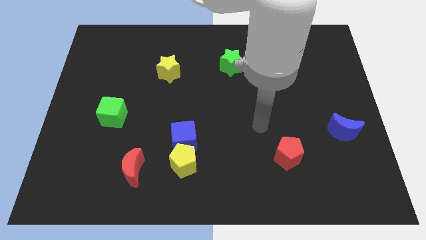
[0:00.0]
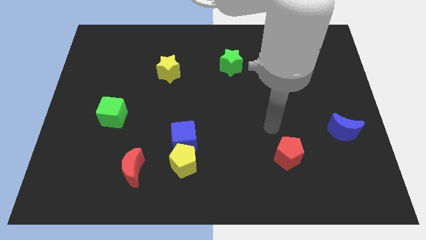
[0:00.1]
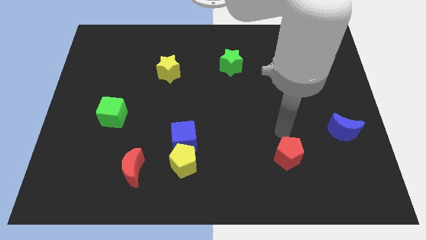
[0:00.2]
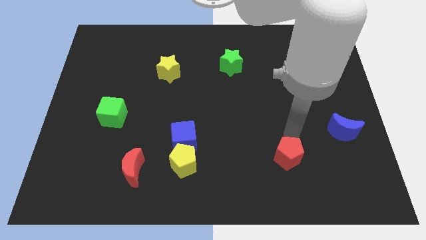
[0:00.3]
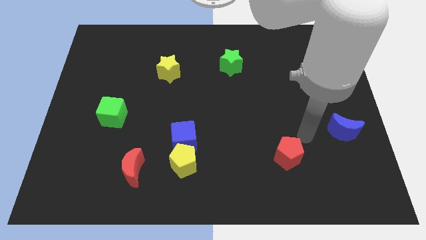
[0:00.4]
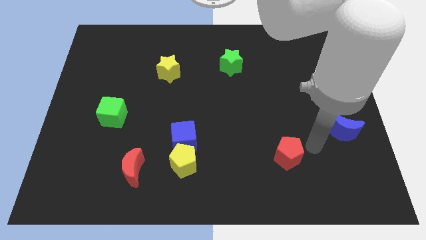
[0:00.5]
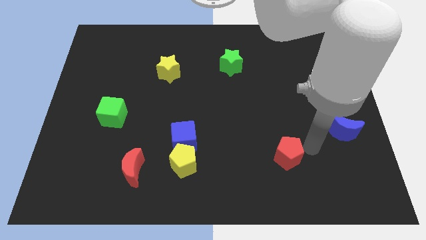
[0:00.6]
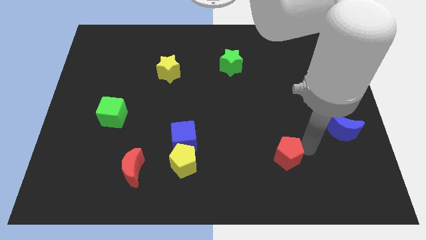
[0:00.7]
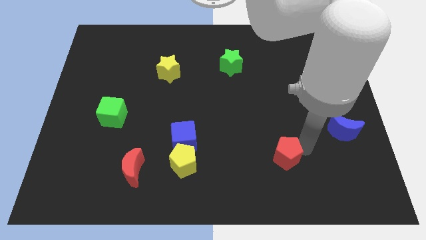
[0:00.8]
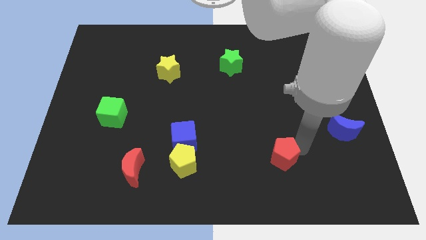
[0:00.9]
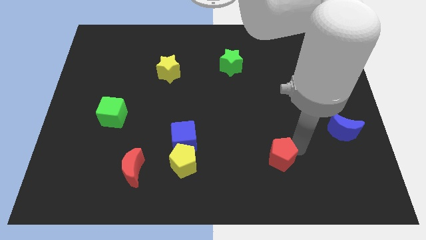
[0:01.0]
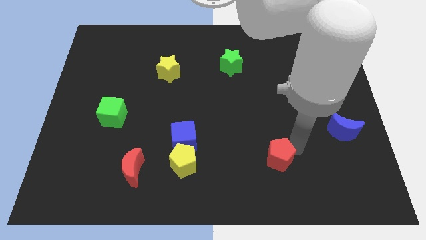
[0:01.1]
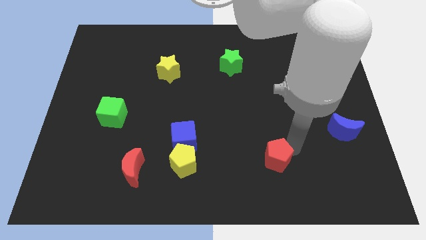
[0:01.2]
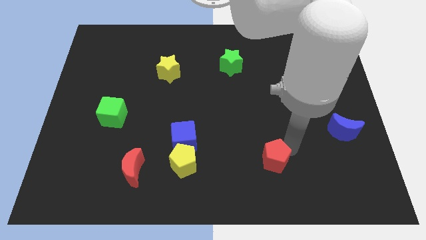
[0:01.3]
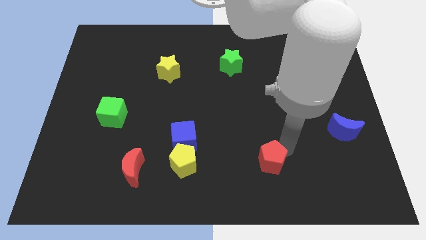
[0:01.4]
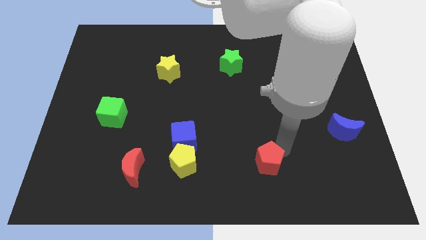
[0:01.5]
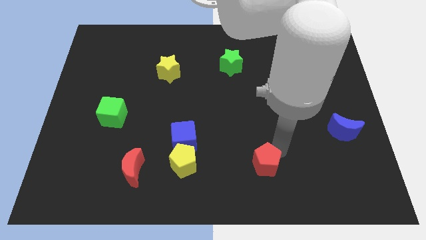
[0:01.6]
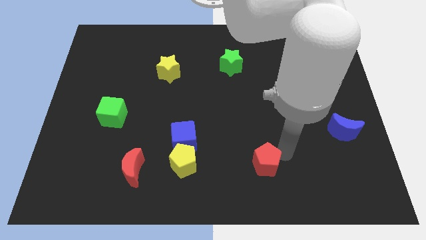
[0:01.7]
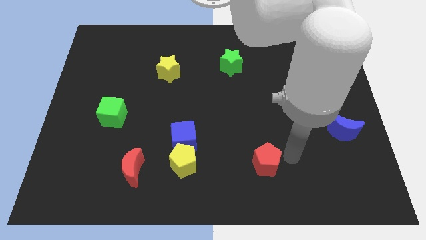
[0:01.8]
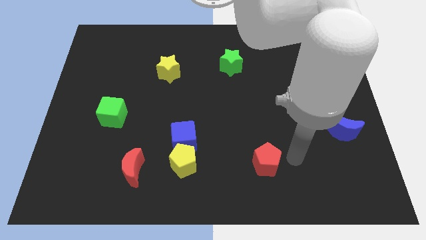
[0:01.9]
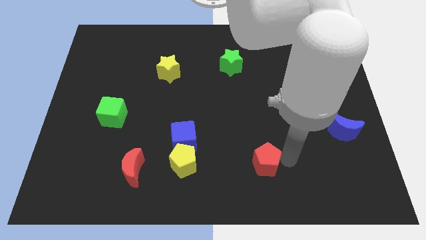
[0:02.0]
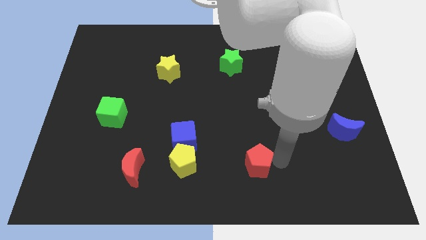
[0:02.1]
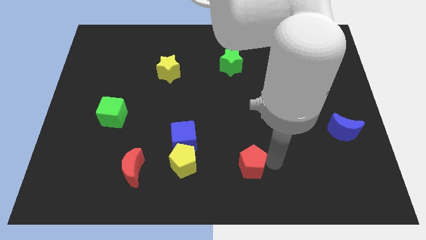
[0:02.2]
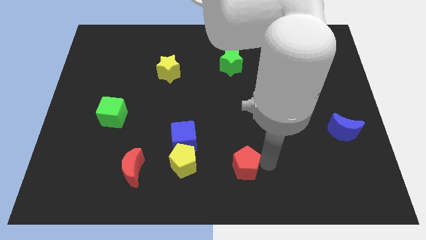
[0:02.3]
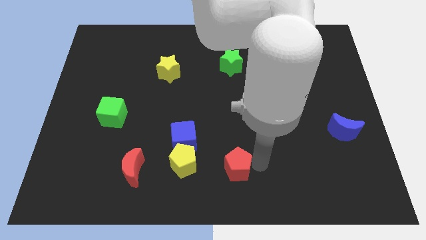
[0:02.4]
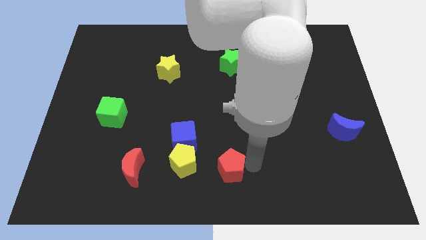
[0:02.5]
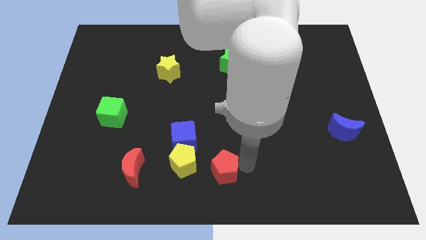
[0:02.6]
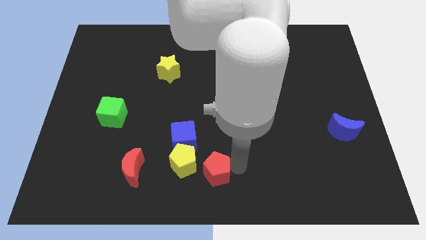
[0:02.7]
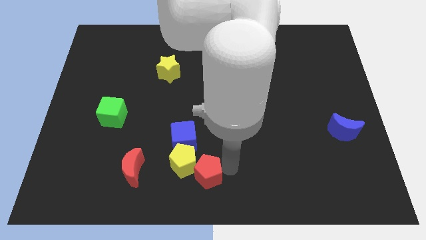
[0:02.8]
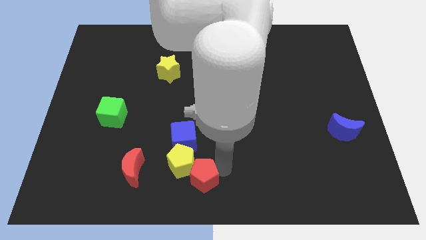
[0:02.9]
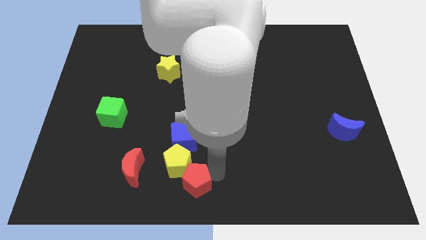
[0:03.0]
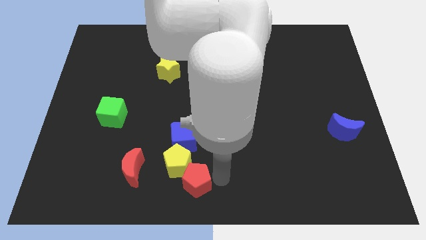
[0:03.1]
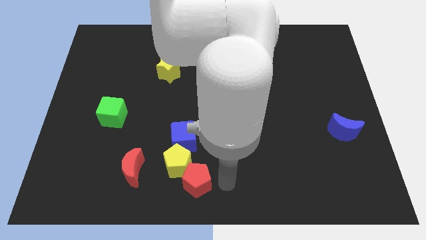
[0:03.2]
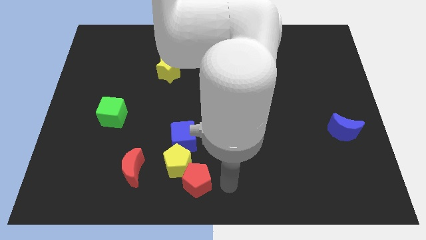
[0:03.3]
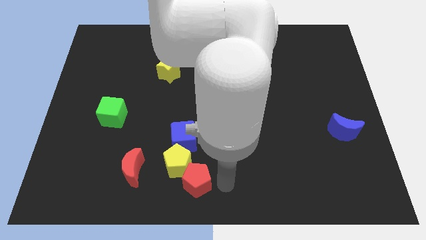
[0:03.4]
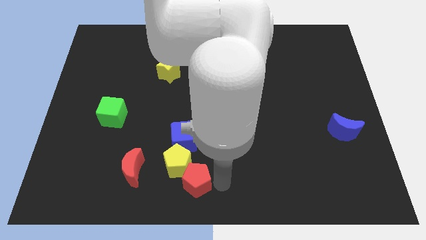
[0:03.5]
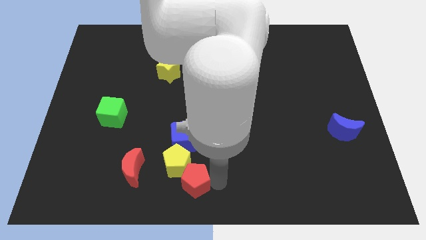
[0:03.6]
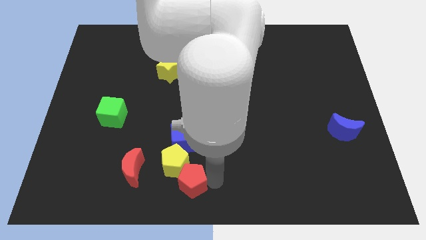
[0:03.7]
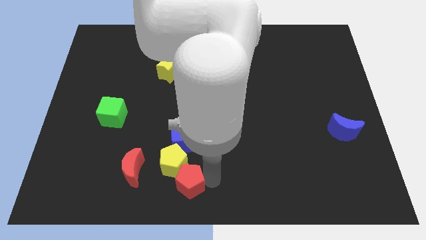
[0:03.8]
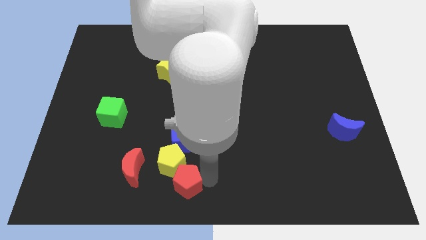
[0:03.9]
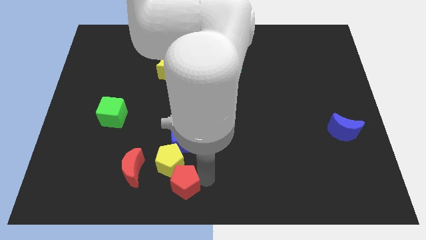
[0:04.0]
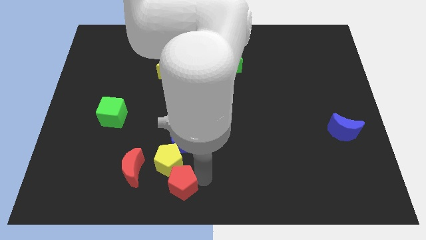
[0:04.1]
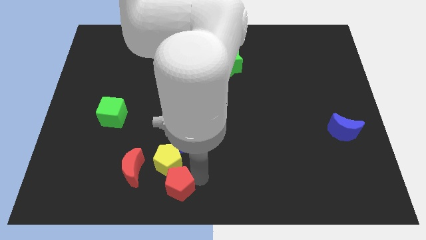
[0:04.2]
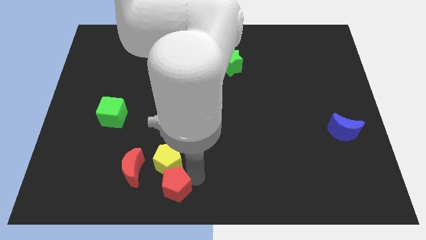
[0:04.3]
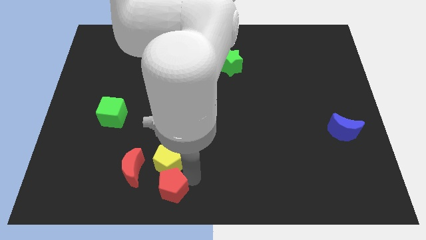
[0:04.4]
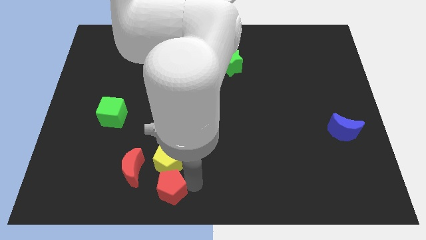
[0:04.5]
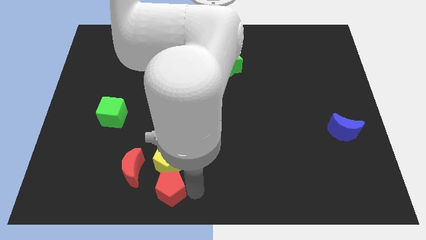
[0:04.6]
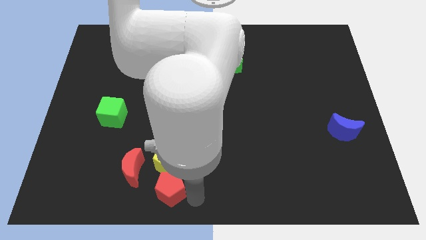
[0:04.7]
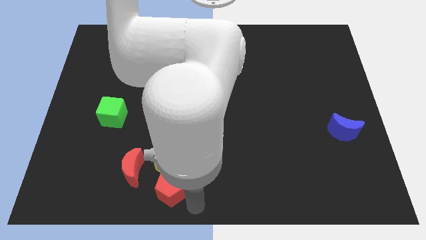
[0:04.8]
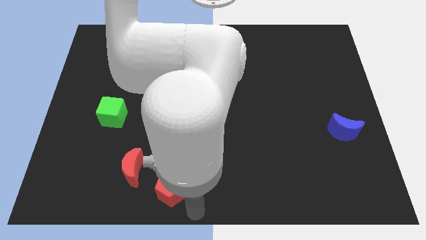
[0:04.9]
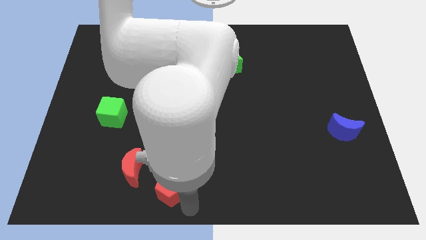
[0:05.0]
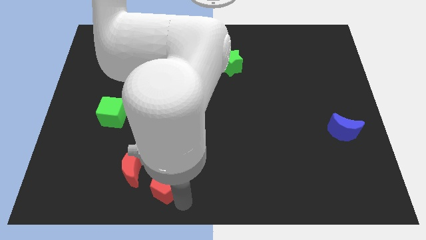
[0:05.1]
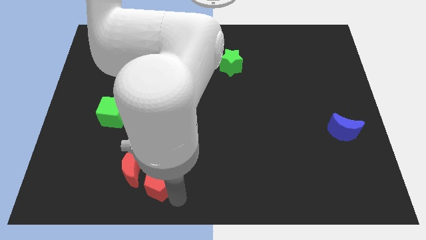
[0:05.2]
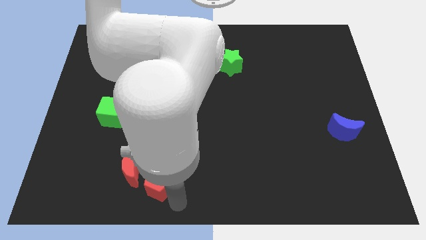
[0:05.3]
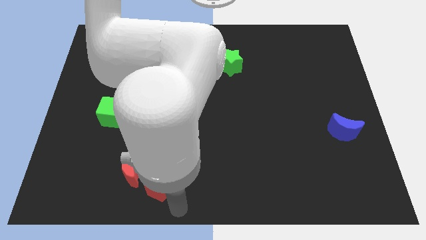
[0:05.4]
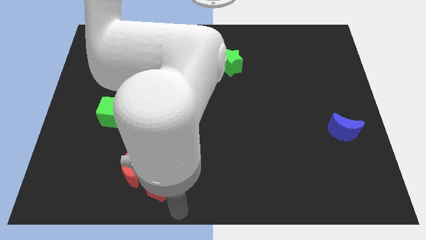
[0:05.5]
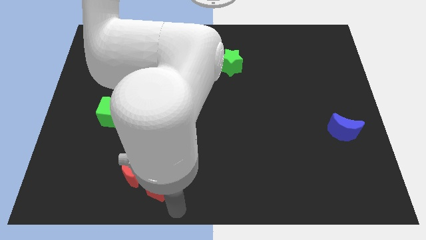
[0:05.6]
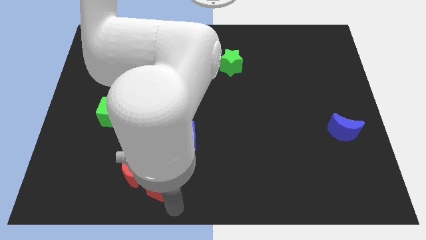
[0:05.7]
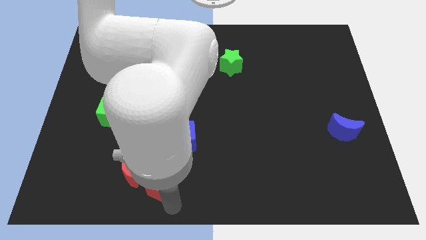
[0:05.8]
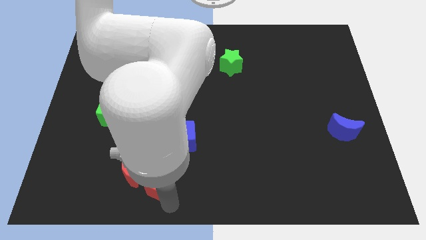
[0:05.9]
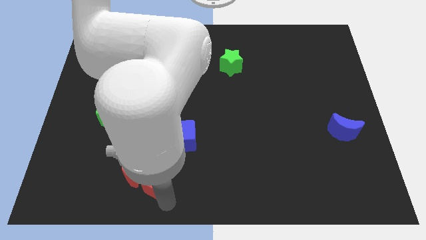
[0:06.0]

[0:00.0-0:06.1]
put the red pentagon to the red moon

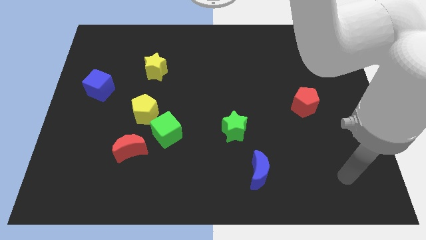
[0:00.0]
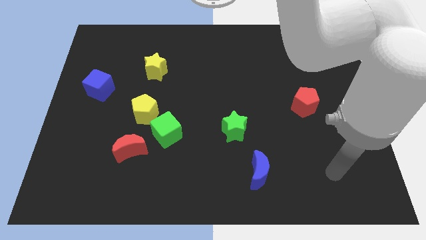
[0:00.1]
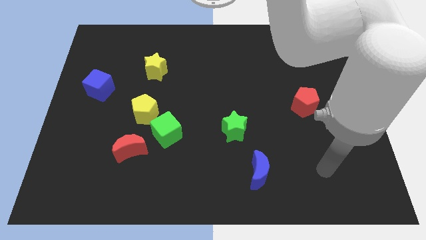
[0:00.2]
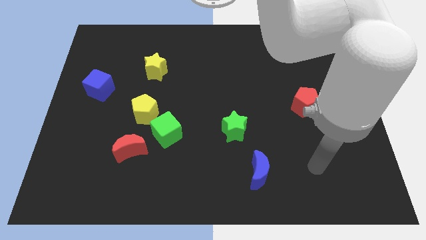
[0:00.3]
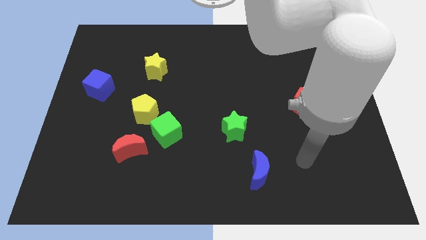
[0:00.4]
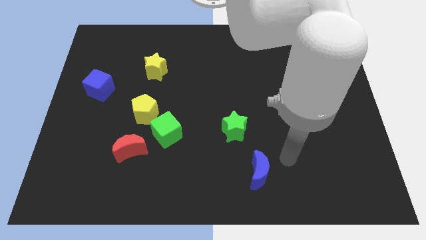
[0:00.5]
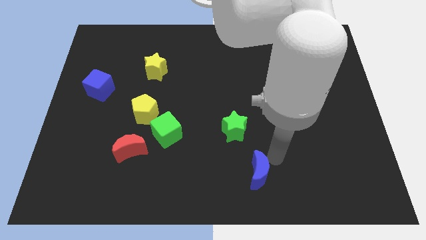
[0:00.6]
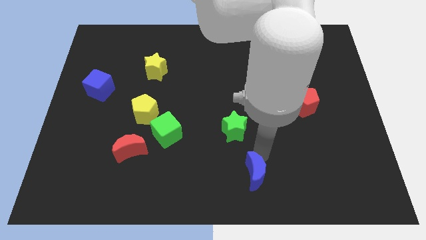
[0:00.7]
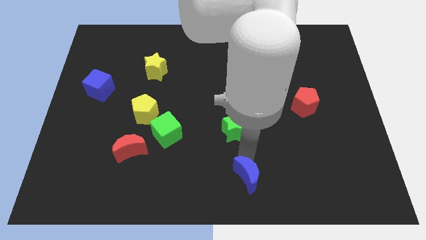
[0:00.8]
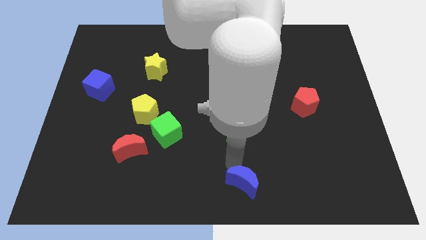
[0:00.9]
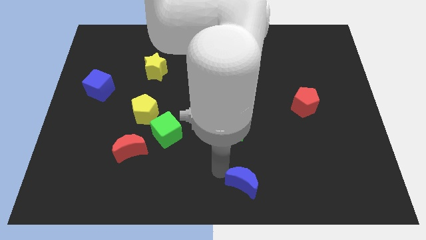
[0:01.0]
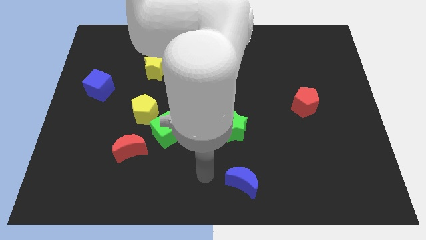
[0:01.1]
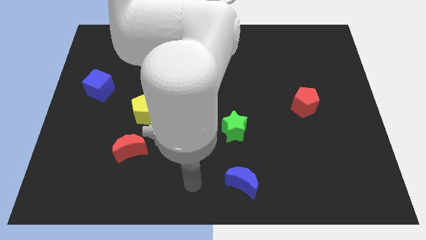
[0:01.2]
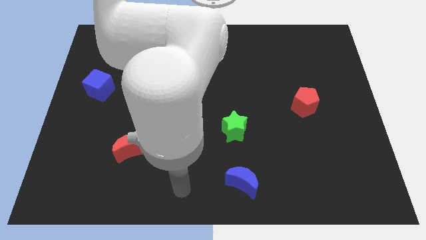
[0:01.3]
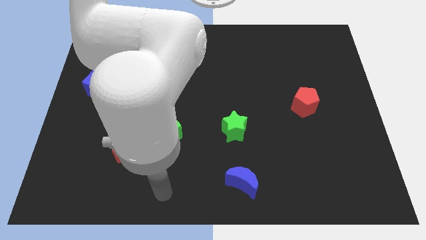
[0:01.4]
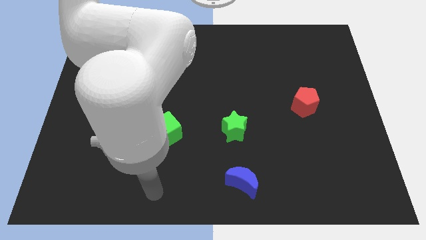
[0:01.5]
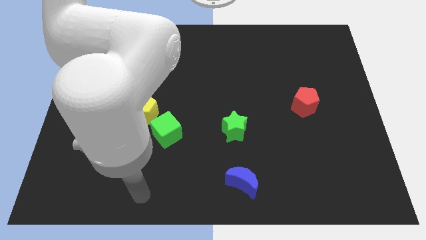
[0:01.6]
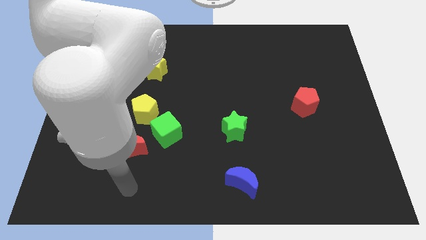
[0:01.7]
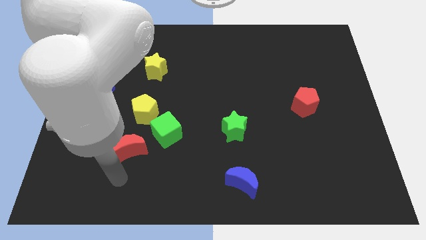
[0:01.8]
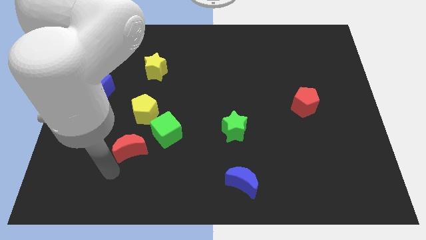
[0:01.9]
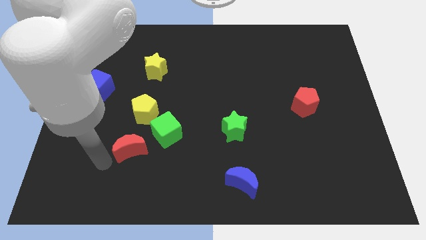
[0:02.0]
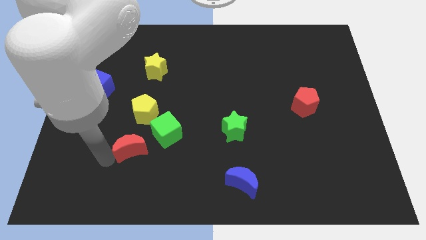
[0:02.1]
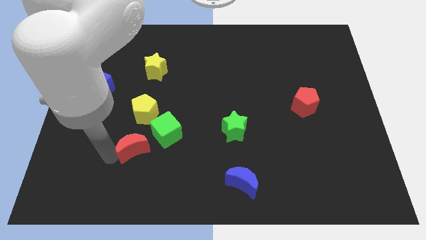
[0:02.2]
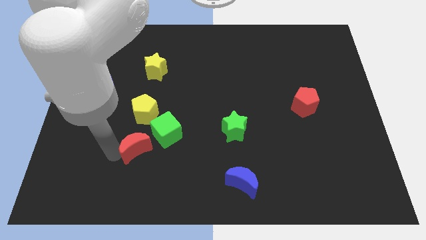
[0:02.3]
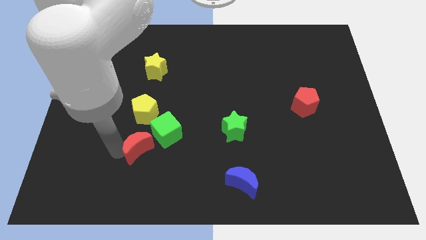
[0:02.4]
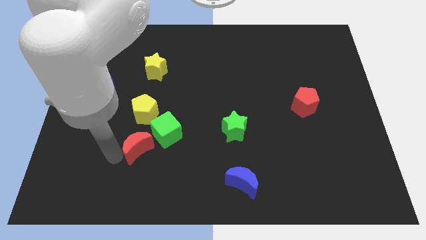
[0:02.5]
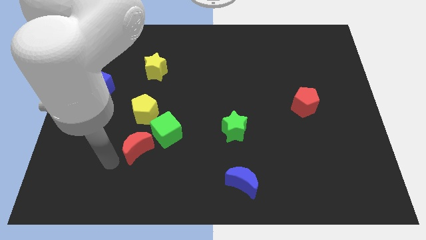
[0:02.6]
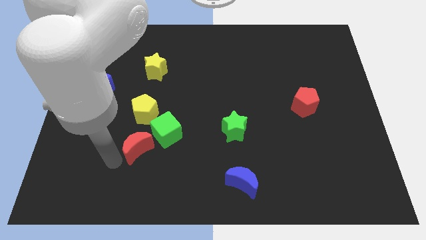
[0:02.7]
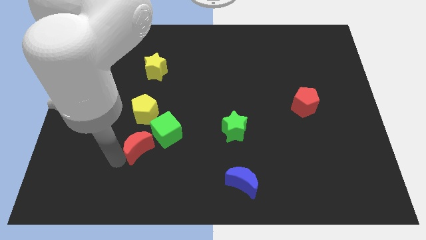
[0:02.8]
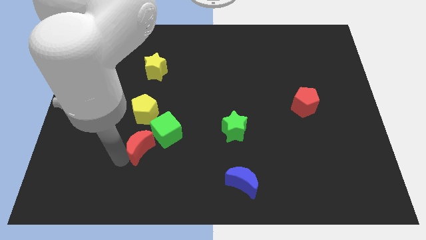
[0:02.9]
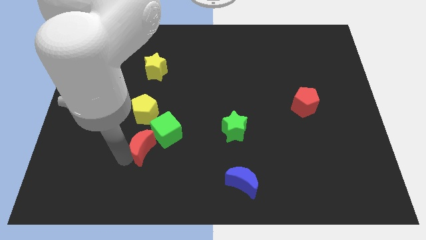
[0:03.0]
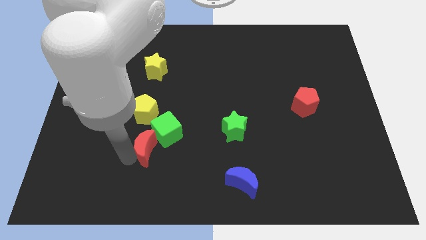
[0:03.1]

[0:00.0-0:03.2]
push the red moon to the green cube
